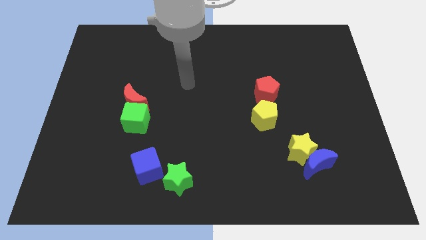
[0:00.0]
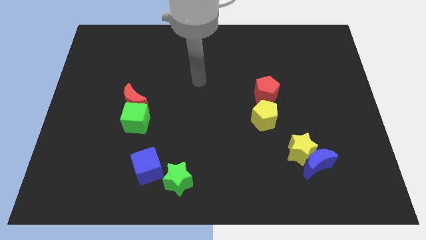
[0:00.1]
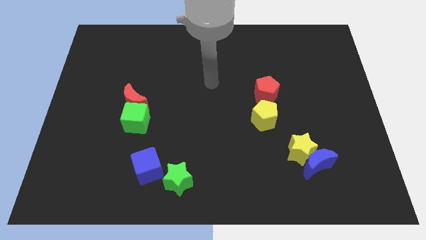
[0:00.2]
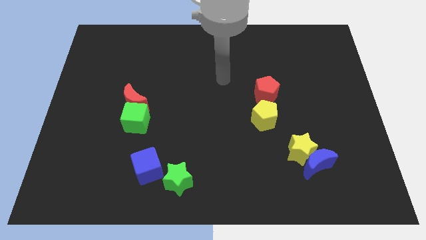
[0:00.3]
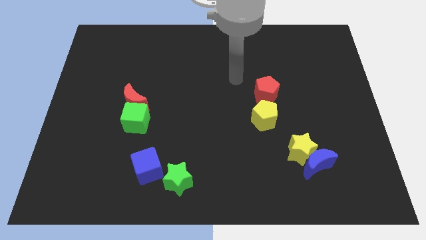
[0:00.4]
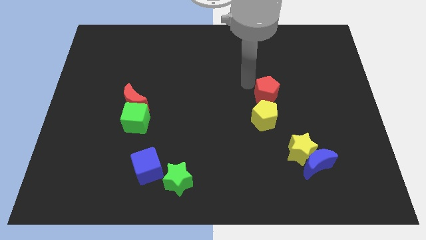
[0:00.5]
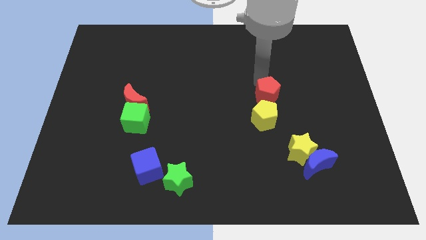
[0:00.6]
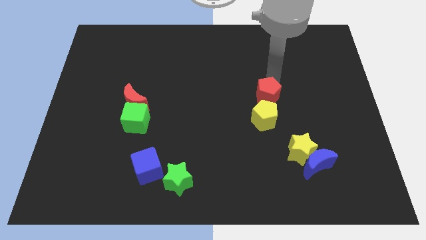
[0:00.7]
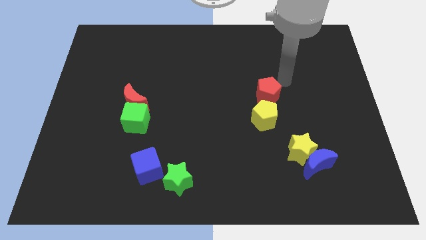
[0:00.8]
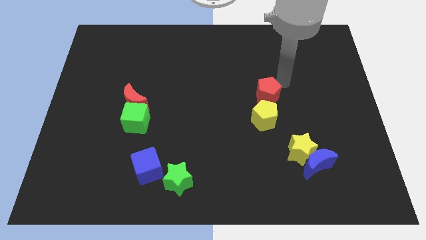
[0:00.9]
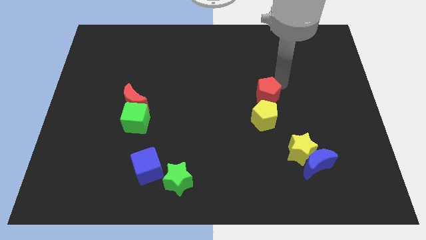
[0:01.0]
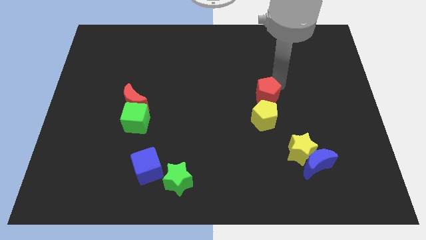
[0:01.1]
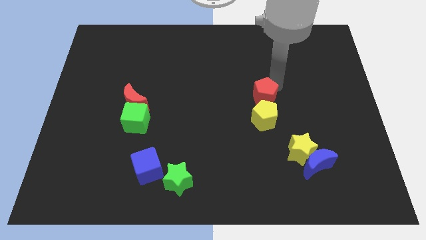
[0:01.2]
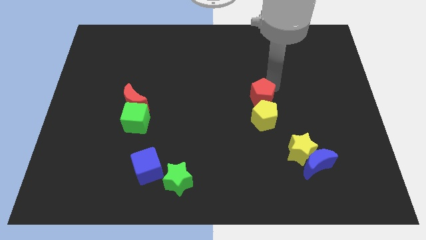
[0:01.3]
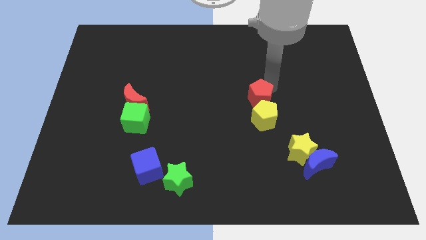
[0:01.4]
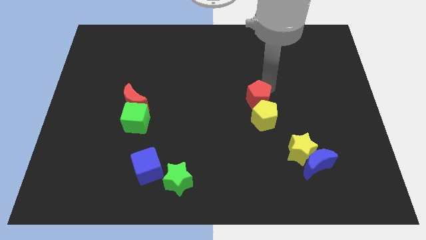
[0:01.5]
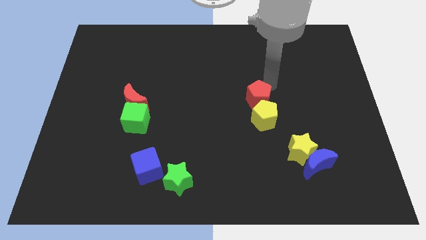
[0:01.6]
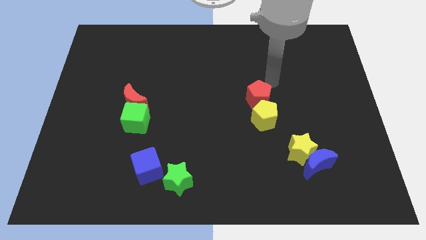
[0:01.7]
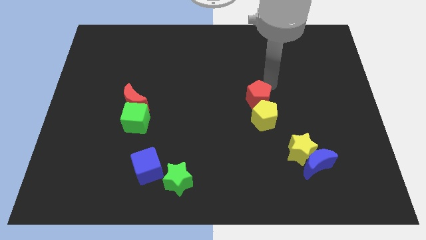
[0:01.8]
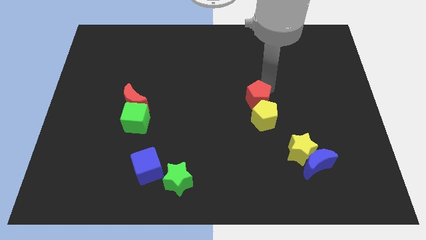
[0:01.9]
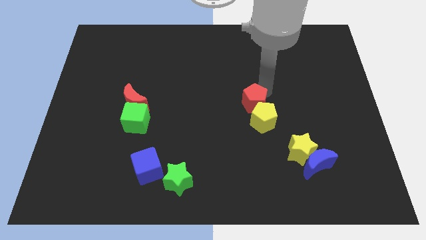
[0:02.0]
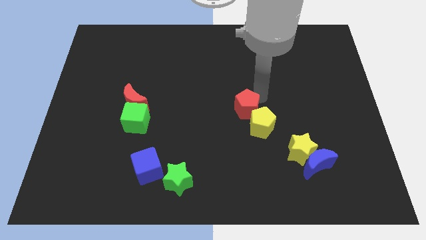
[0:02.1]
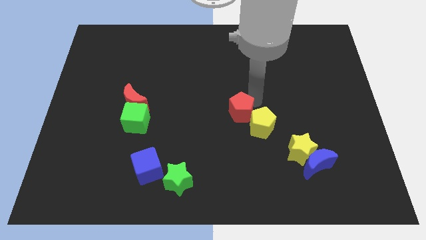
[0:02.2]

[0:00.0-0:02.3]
push the red pentagon diagonally down and to the left somewhat

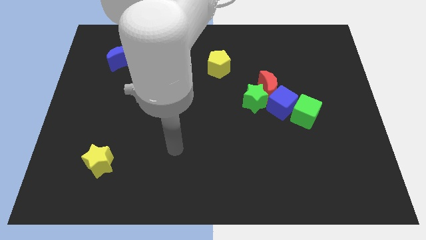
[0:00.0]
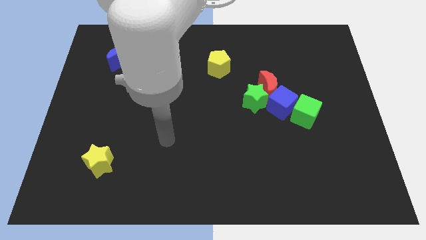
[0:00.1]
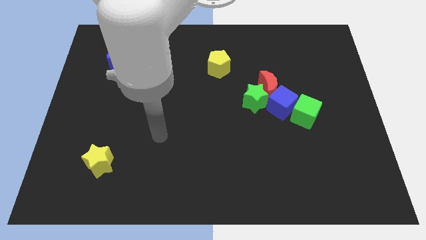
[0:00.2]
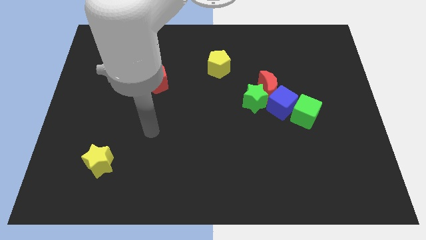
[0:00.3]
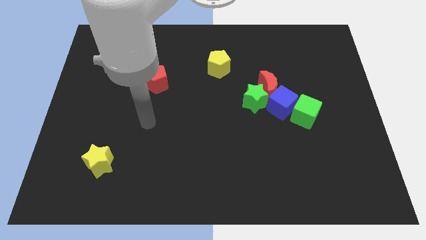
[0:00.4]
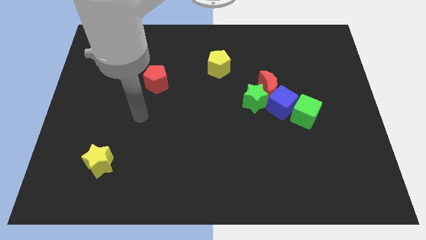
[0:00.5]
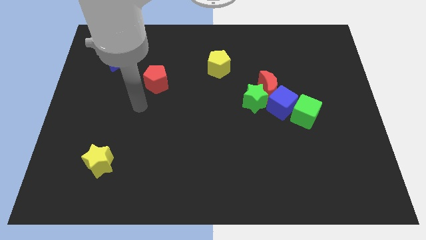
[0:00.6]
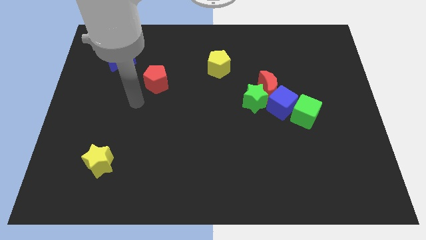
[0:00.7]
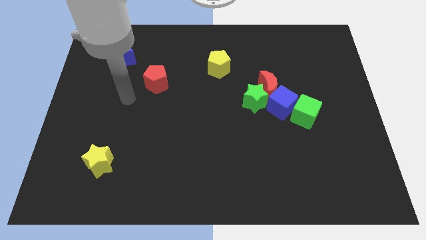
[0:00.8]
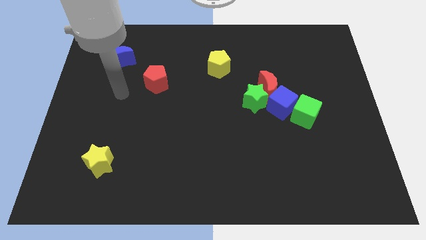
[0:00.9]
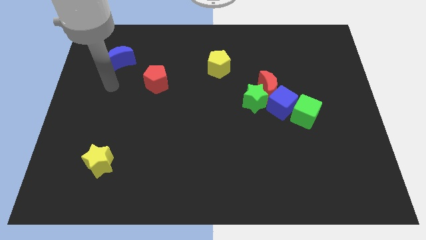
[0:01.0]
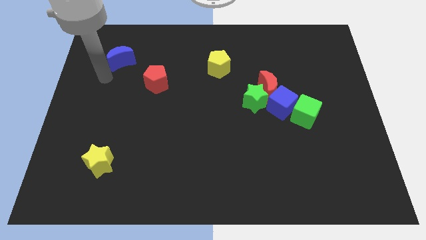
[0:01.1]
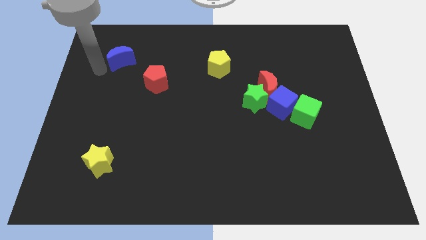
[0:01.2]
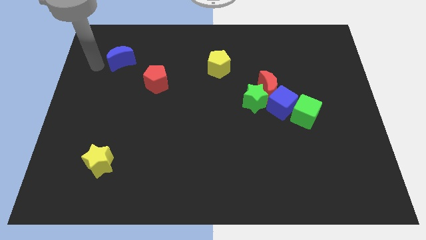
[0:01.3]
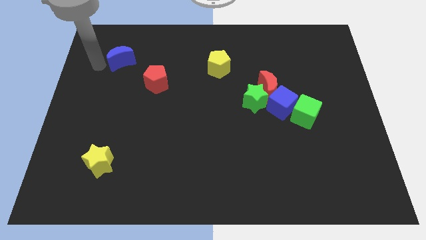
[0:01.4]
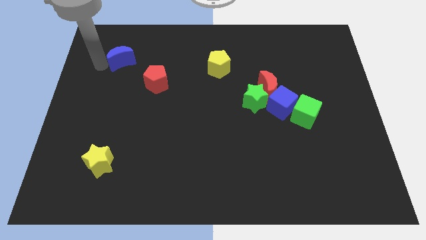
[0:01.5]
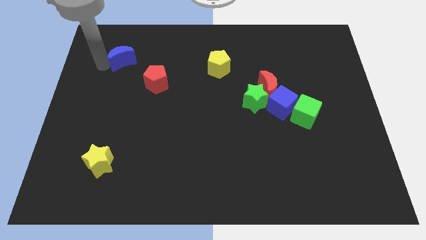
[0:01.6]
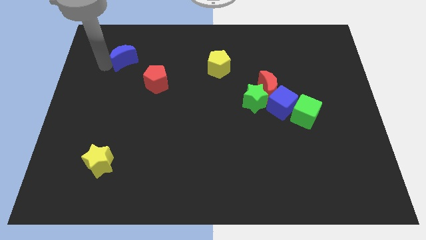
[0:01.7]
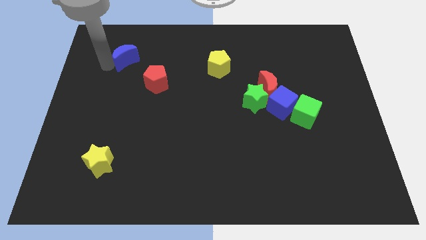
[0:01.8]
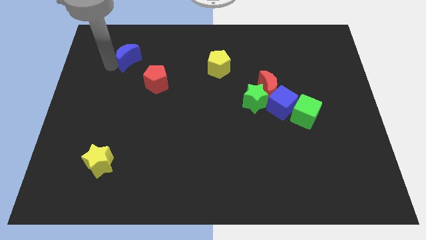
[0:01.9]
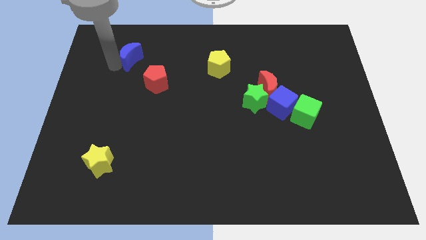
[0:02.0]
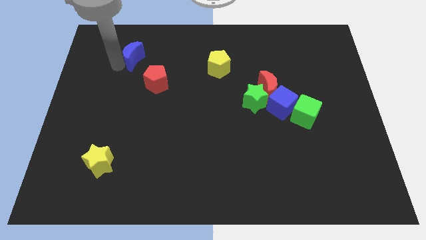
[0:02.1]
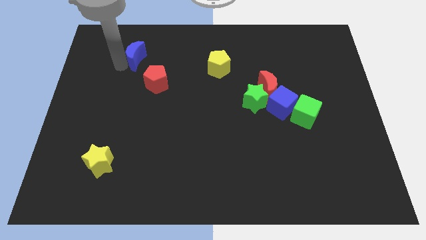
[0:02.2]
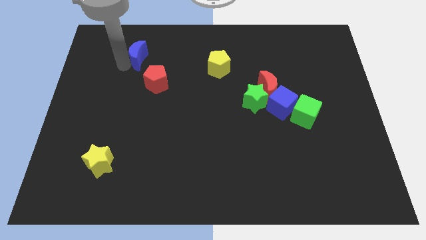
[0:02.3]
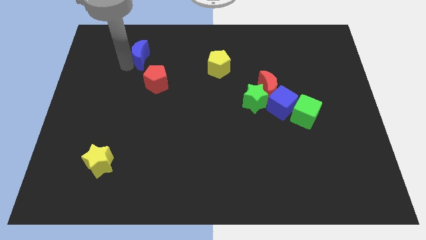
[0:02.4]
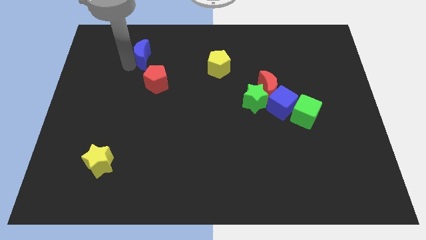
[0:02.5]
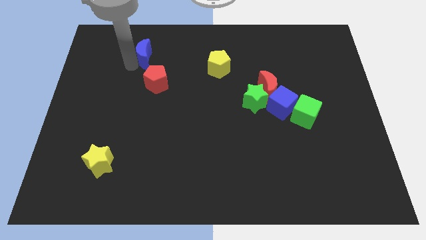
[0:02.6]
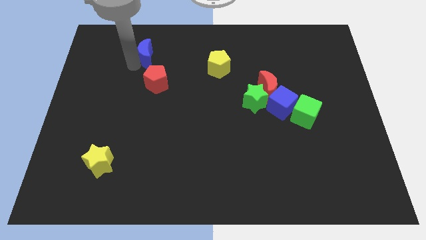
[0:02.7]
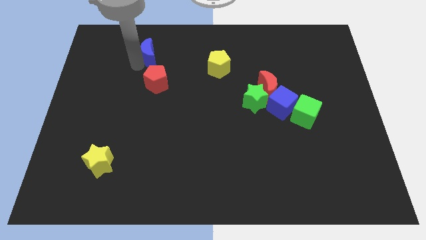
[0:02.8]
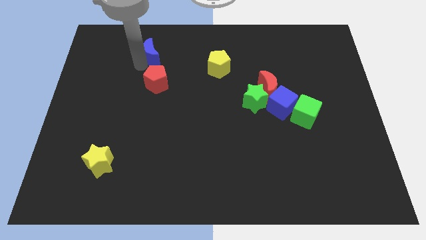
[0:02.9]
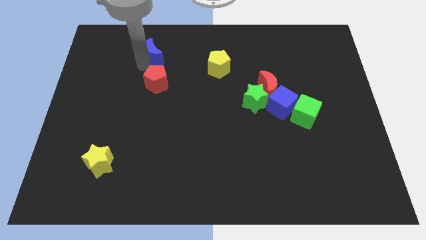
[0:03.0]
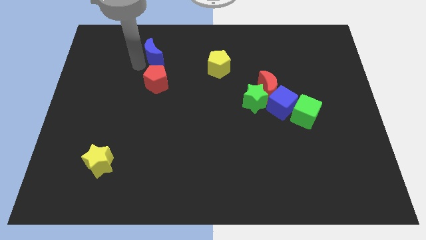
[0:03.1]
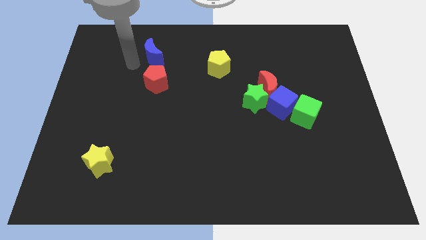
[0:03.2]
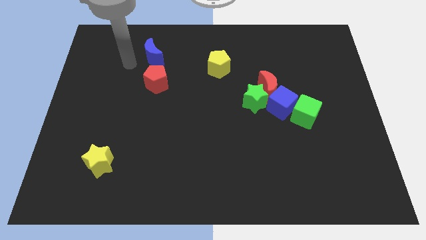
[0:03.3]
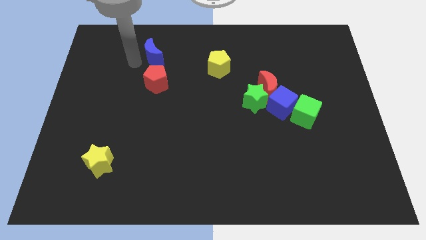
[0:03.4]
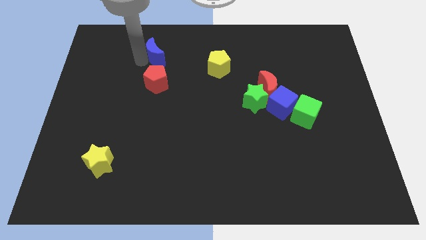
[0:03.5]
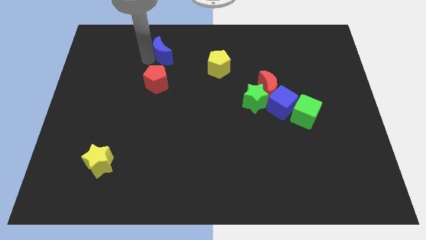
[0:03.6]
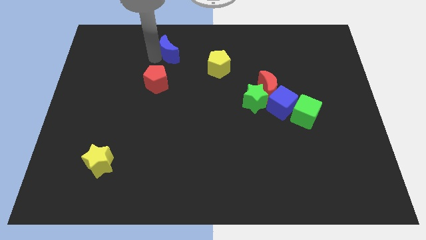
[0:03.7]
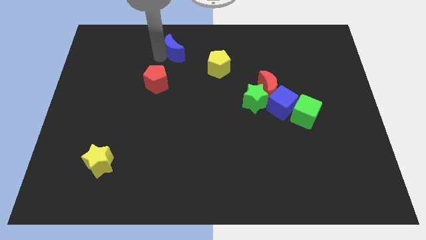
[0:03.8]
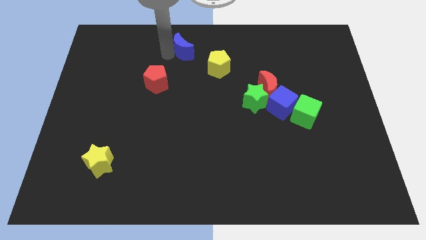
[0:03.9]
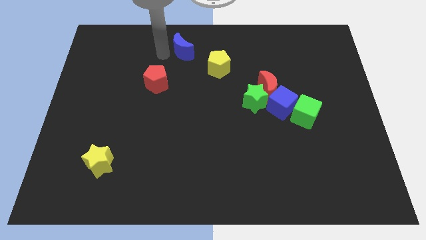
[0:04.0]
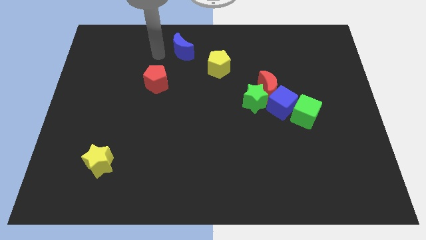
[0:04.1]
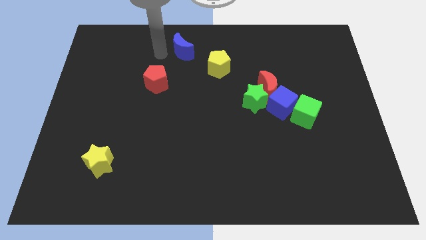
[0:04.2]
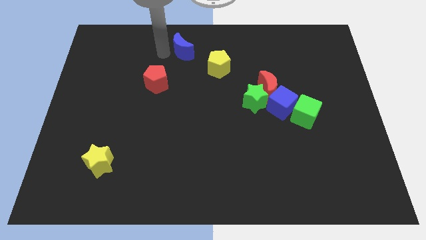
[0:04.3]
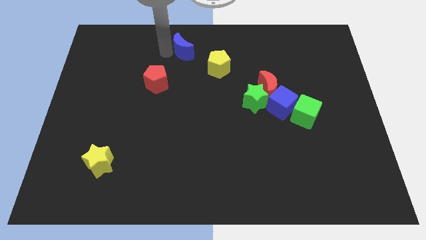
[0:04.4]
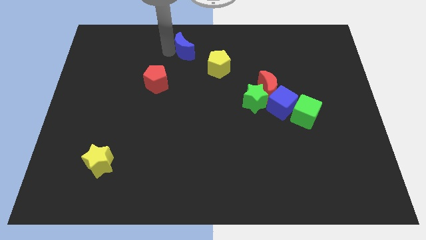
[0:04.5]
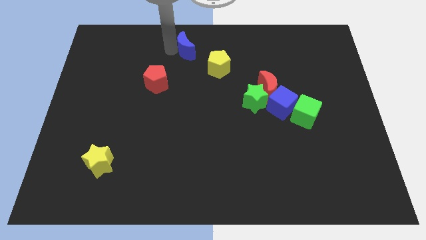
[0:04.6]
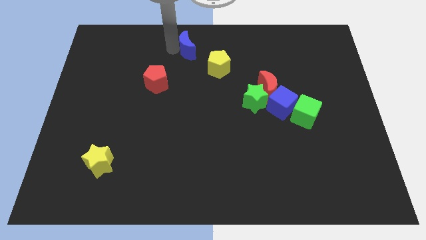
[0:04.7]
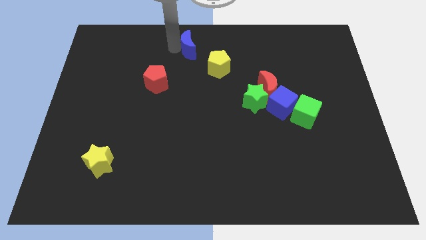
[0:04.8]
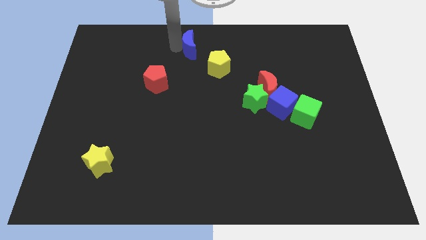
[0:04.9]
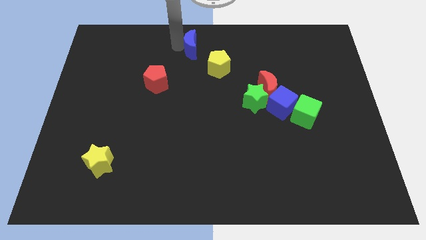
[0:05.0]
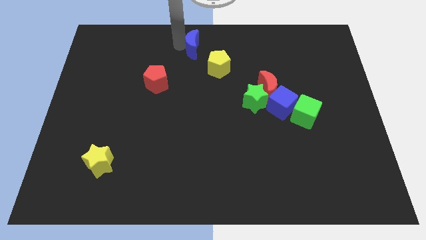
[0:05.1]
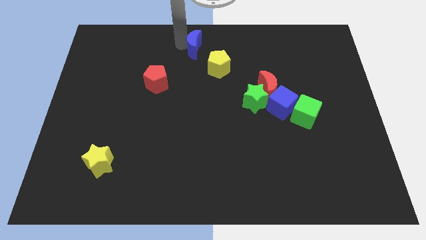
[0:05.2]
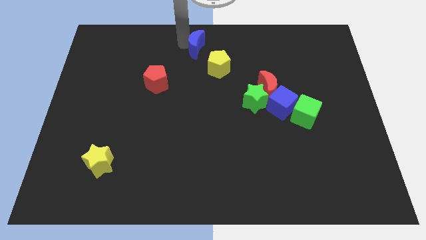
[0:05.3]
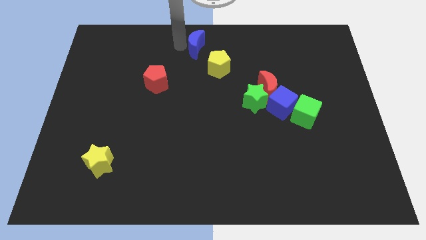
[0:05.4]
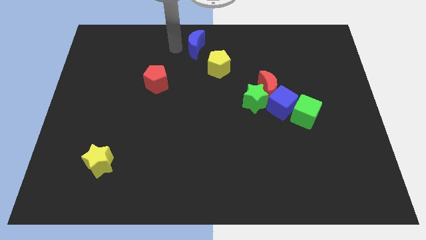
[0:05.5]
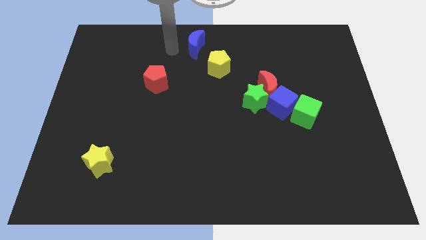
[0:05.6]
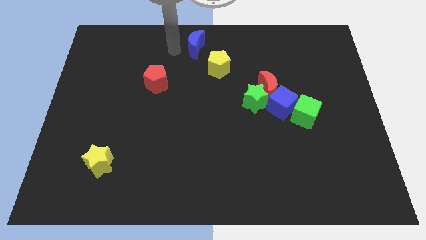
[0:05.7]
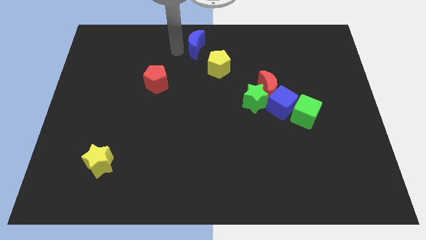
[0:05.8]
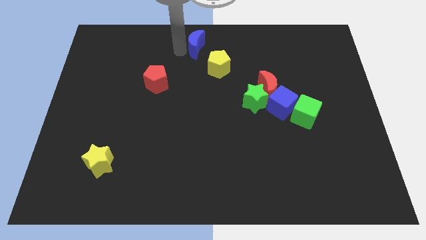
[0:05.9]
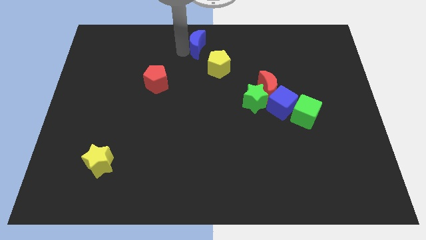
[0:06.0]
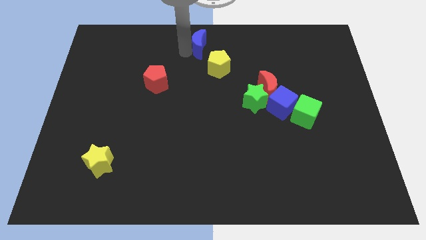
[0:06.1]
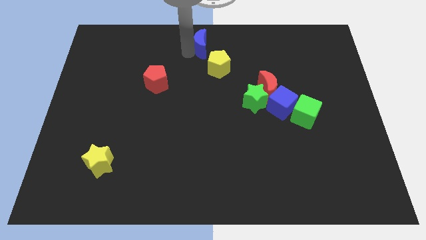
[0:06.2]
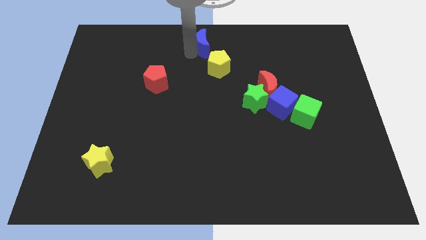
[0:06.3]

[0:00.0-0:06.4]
move the blue moon right
